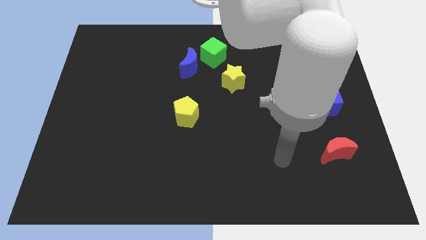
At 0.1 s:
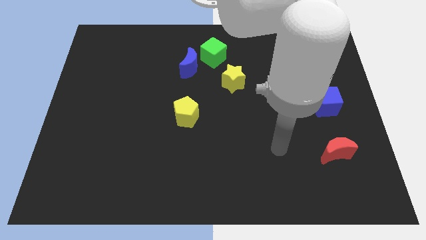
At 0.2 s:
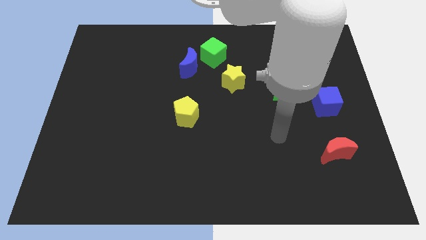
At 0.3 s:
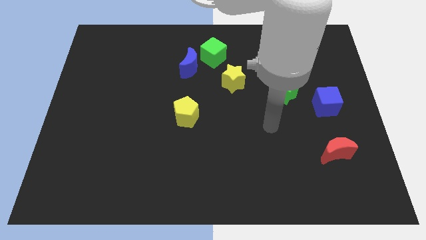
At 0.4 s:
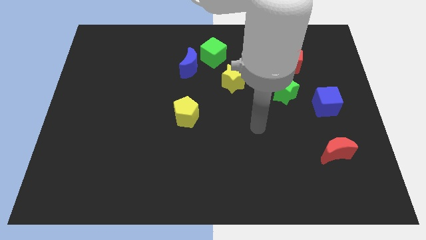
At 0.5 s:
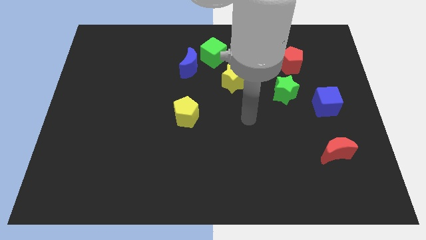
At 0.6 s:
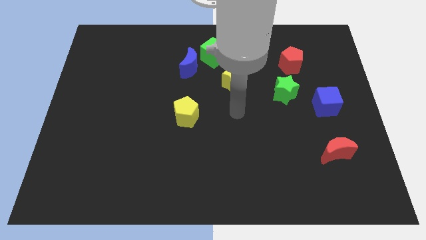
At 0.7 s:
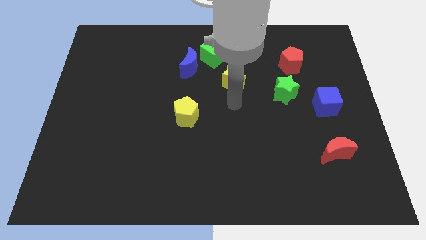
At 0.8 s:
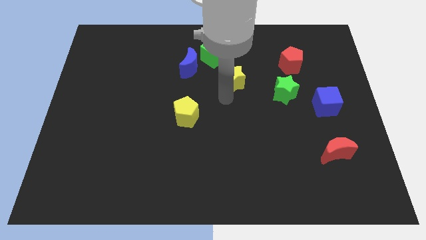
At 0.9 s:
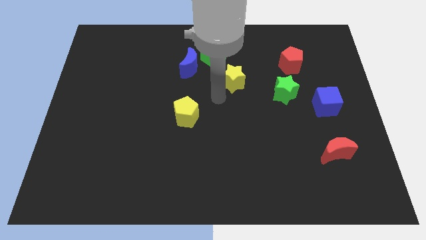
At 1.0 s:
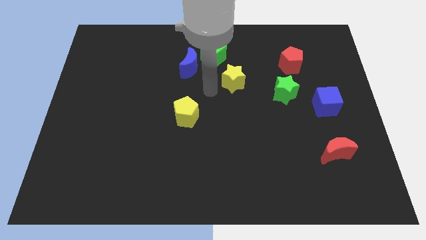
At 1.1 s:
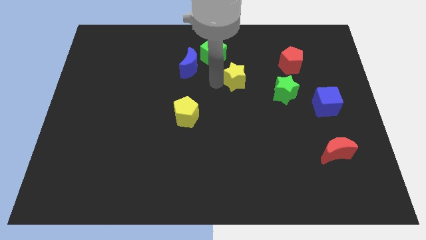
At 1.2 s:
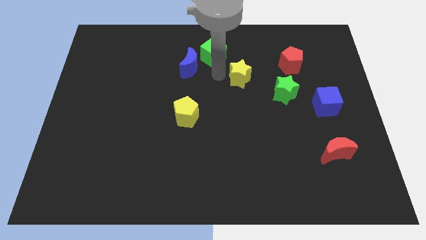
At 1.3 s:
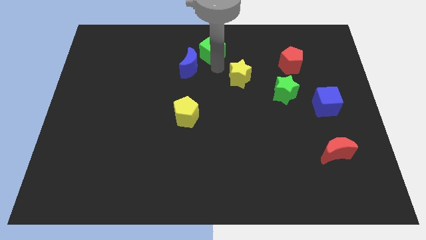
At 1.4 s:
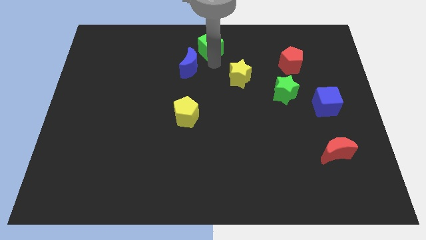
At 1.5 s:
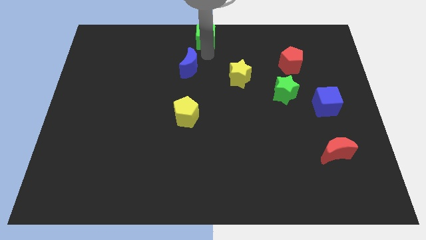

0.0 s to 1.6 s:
pull the blue moon apart from the green cube

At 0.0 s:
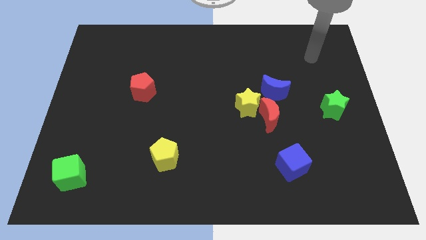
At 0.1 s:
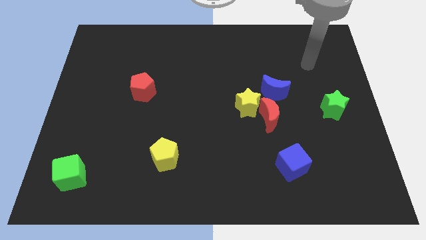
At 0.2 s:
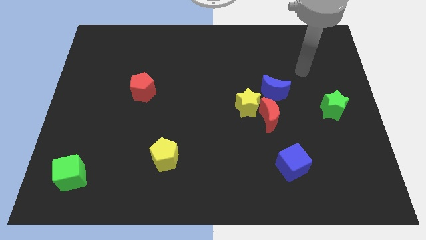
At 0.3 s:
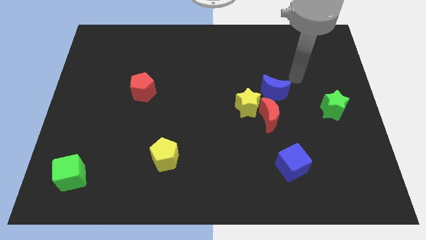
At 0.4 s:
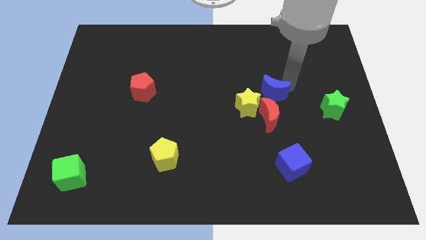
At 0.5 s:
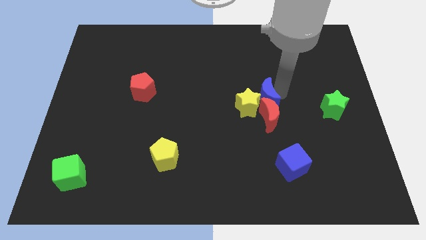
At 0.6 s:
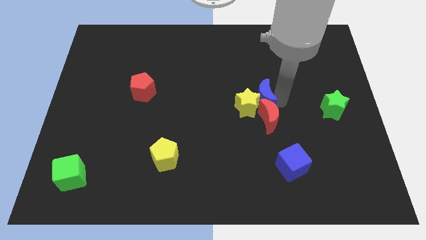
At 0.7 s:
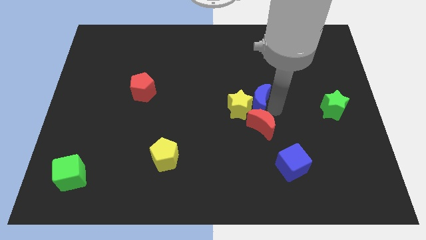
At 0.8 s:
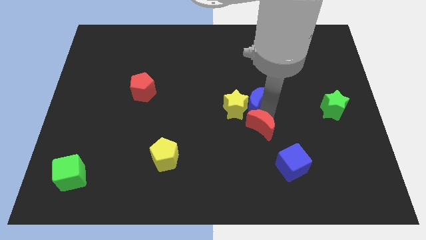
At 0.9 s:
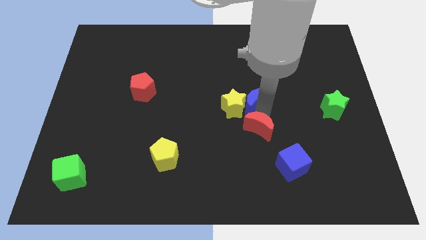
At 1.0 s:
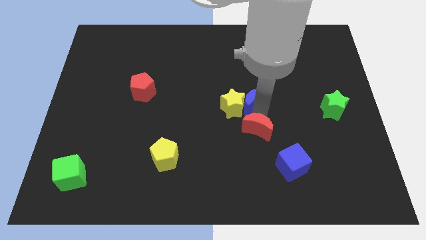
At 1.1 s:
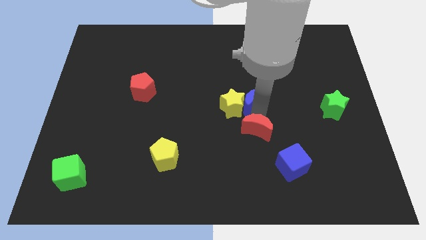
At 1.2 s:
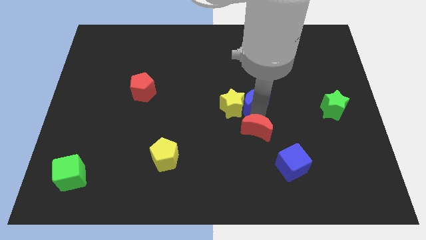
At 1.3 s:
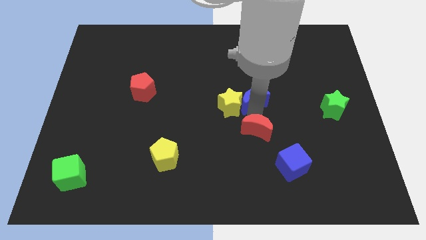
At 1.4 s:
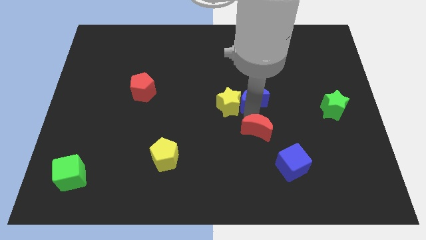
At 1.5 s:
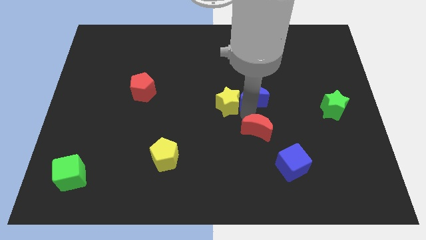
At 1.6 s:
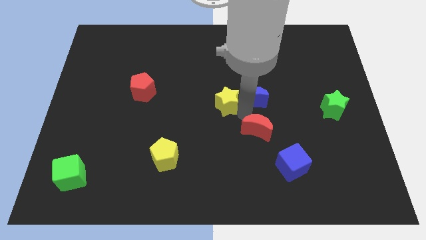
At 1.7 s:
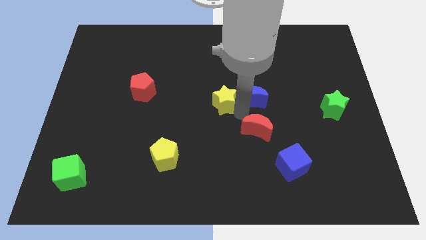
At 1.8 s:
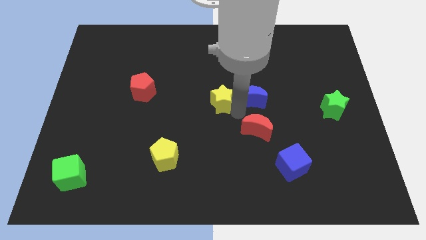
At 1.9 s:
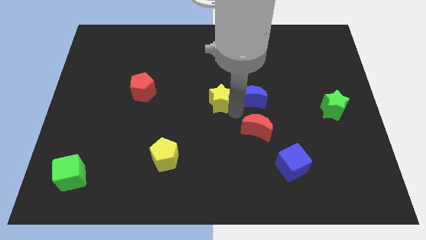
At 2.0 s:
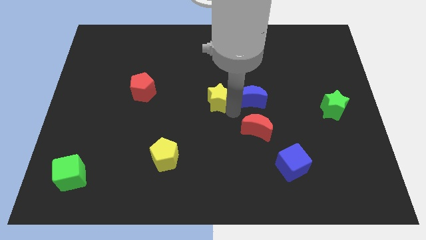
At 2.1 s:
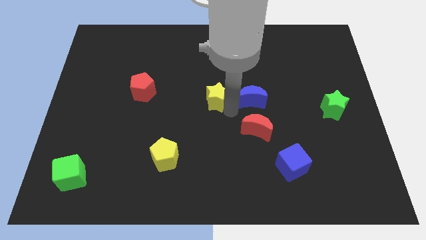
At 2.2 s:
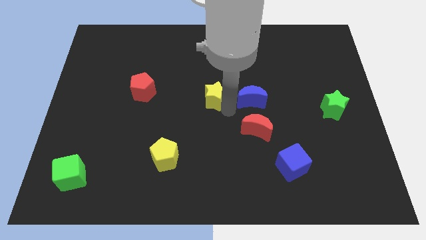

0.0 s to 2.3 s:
separate the yellow star from the red moon and blue moon

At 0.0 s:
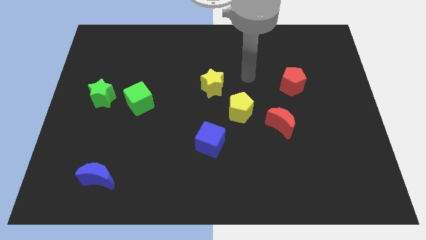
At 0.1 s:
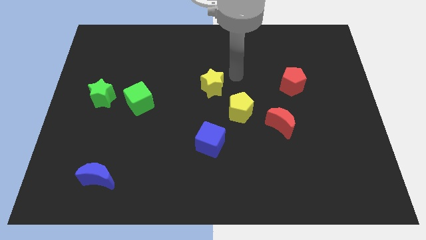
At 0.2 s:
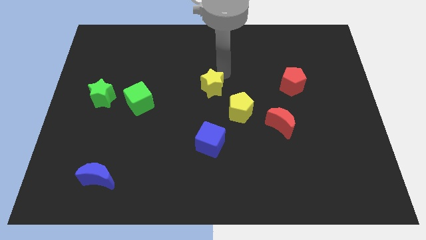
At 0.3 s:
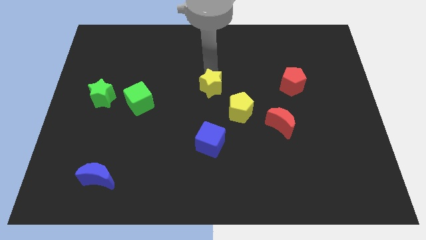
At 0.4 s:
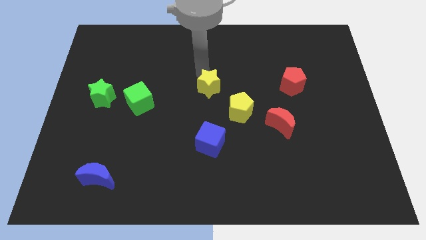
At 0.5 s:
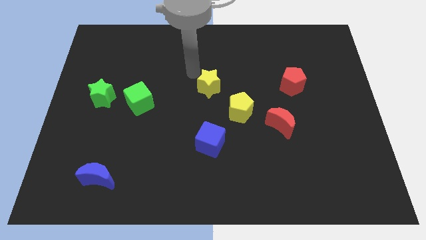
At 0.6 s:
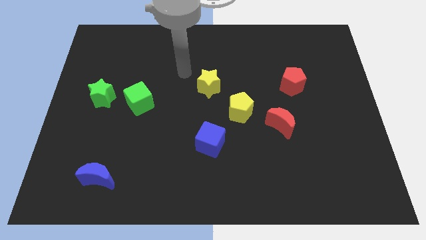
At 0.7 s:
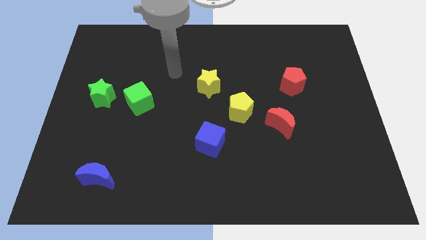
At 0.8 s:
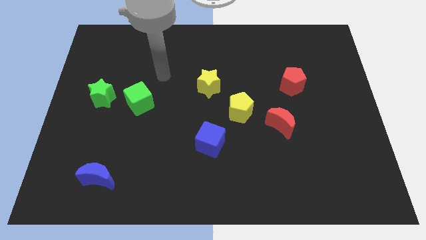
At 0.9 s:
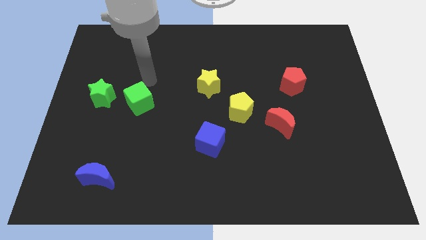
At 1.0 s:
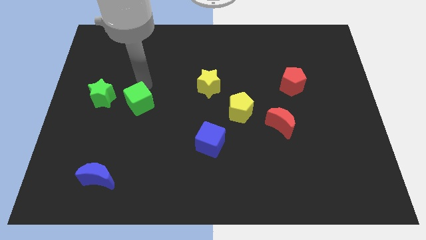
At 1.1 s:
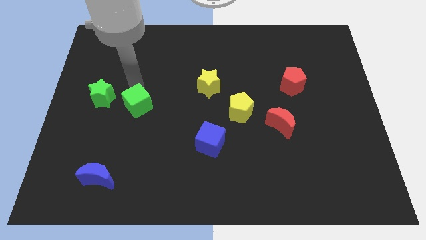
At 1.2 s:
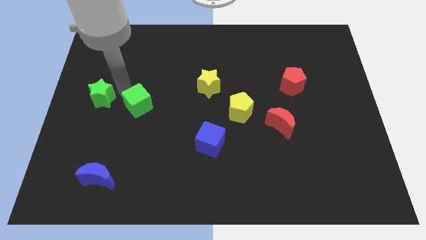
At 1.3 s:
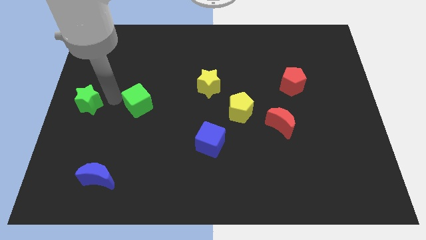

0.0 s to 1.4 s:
move the green cube away from the green star

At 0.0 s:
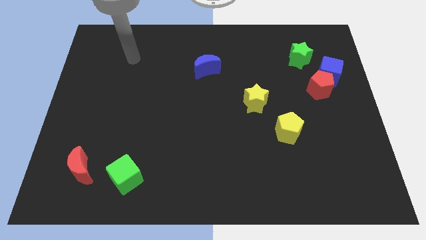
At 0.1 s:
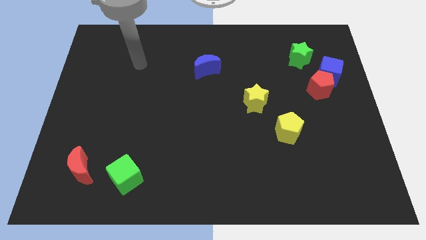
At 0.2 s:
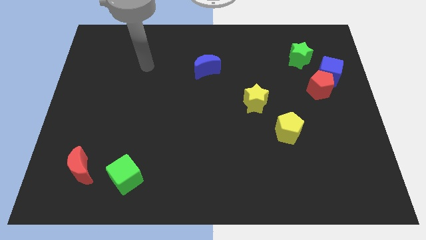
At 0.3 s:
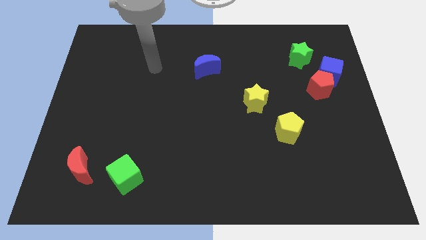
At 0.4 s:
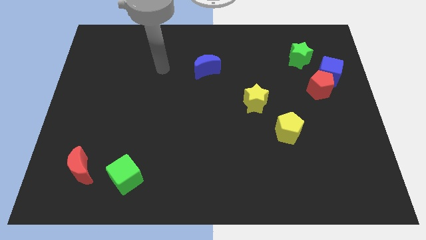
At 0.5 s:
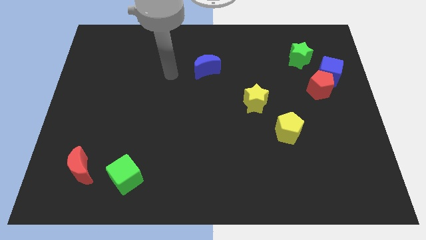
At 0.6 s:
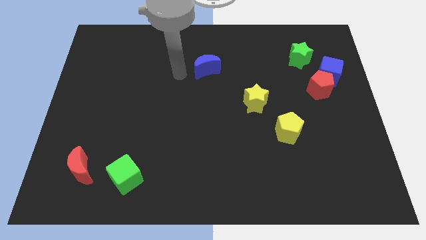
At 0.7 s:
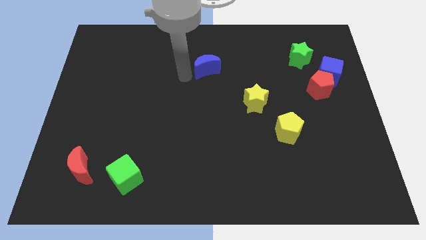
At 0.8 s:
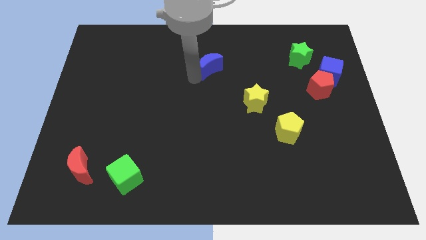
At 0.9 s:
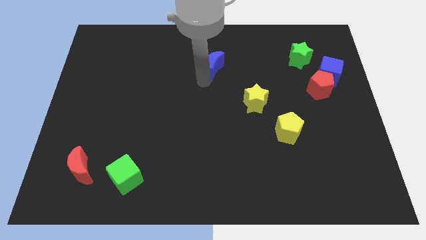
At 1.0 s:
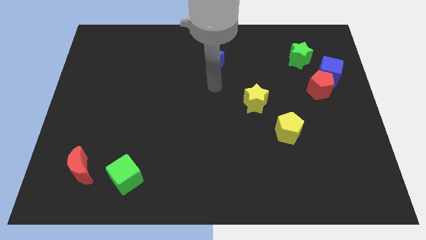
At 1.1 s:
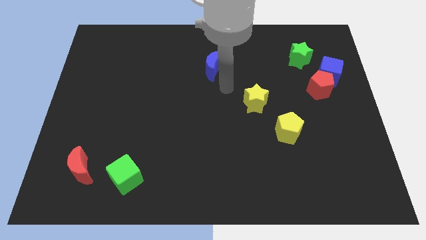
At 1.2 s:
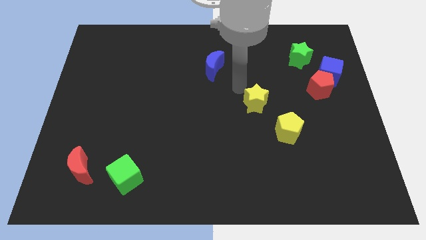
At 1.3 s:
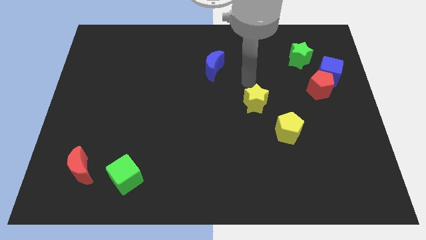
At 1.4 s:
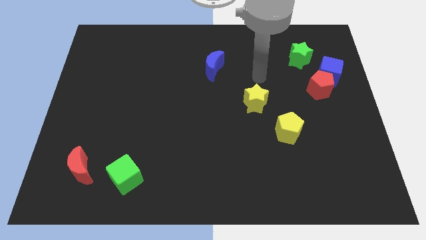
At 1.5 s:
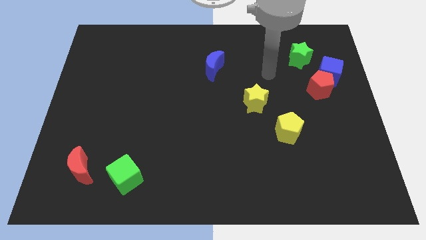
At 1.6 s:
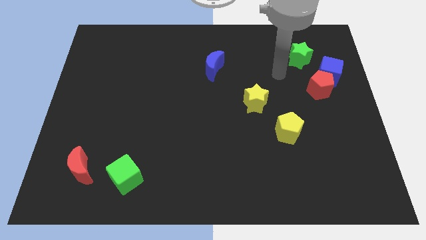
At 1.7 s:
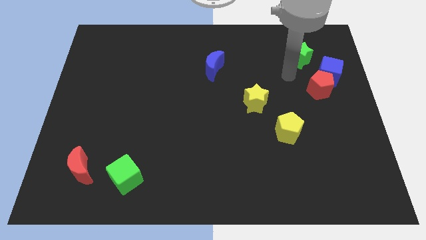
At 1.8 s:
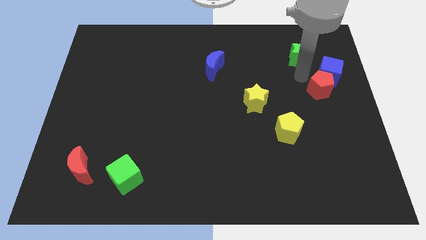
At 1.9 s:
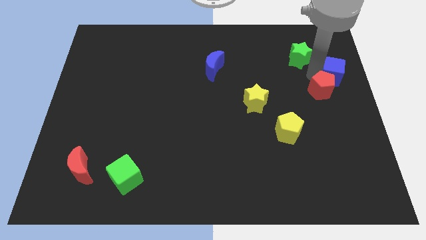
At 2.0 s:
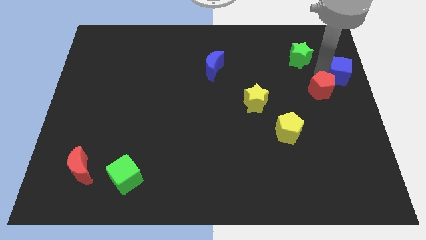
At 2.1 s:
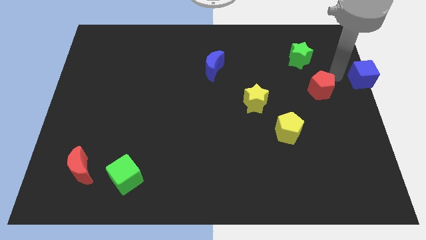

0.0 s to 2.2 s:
separate the red pentagon from the blue cube

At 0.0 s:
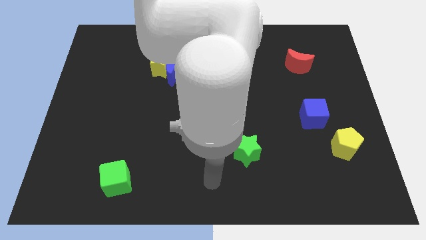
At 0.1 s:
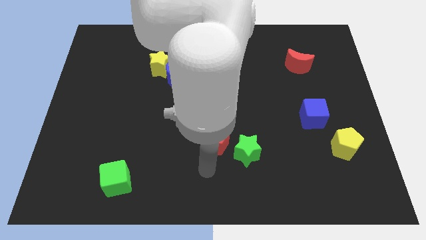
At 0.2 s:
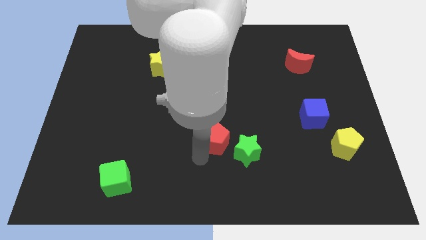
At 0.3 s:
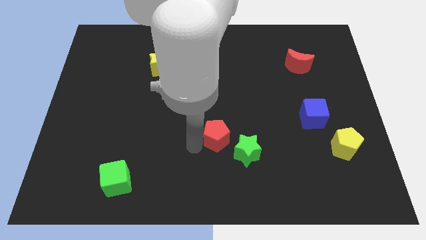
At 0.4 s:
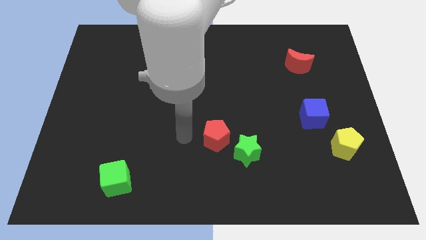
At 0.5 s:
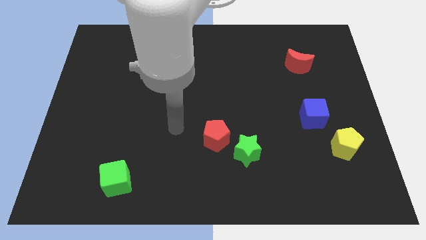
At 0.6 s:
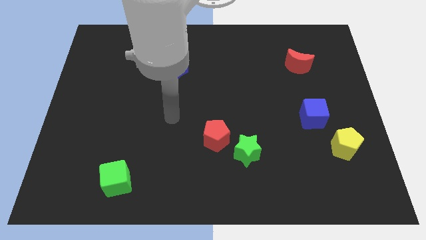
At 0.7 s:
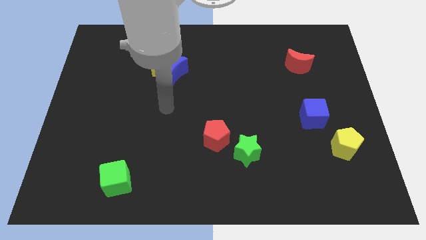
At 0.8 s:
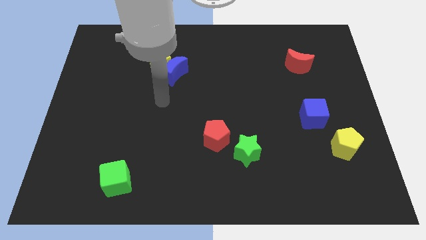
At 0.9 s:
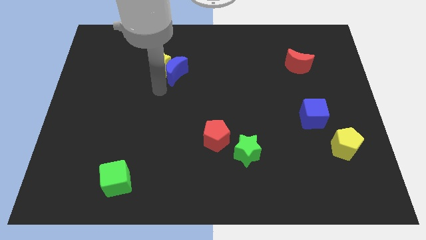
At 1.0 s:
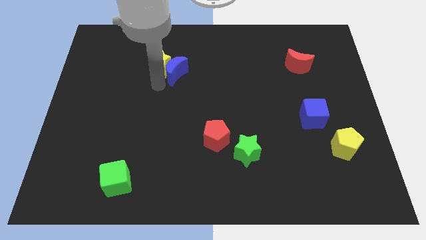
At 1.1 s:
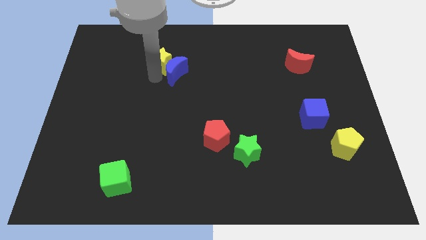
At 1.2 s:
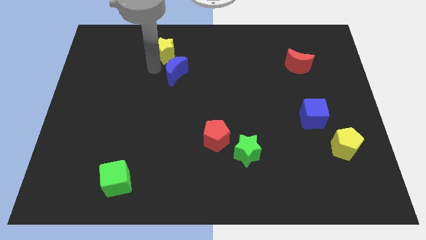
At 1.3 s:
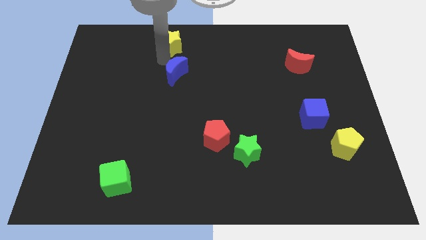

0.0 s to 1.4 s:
move the blue moon away from the yellow star

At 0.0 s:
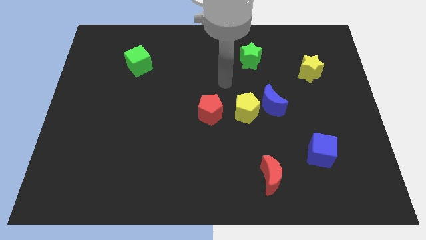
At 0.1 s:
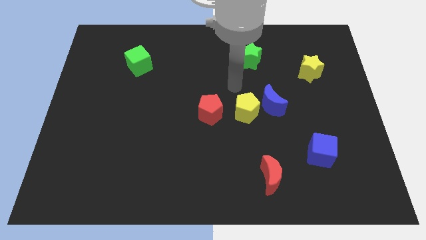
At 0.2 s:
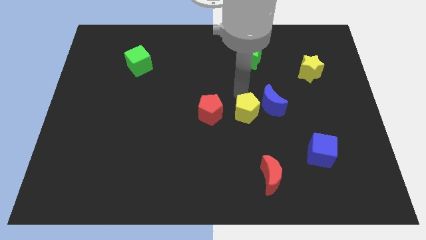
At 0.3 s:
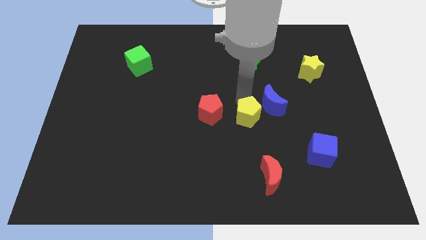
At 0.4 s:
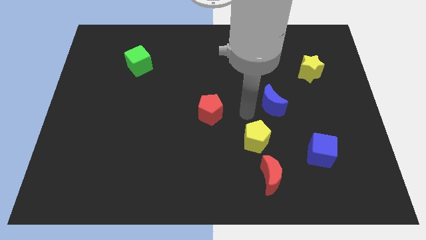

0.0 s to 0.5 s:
pull the blue moon apart from the yellow pentagon
